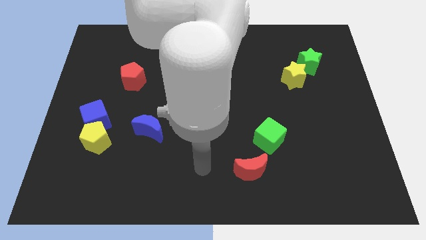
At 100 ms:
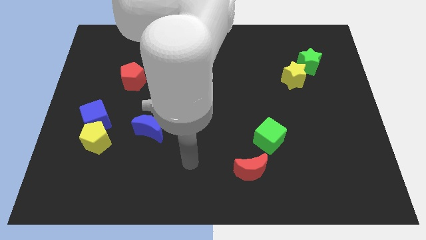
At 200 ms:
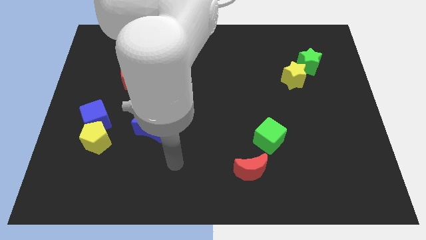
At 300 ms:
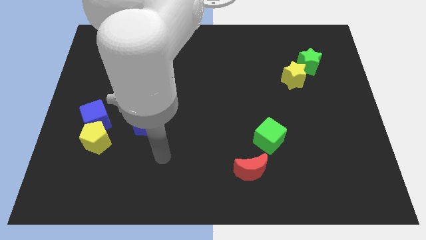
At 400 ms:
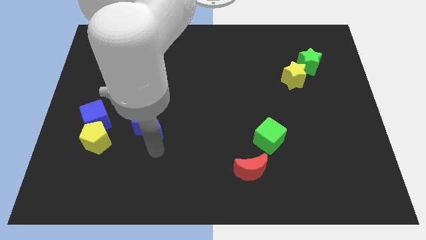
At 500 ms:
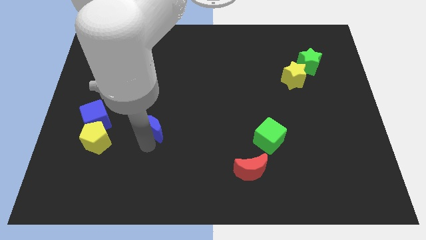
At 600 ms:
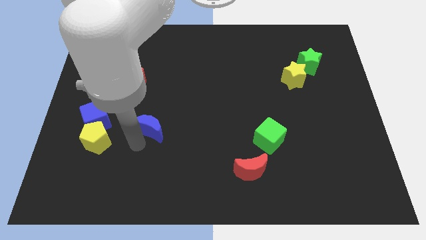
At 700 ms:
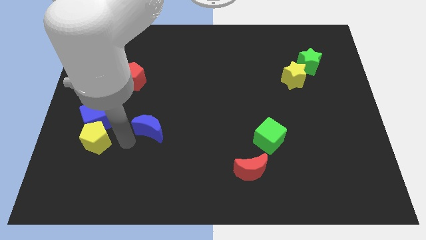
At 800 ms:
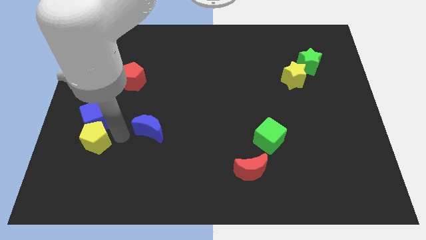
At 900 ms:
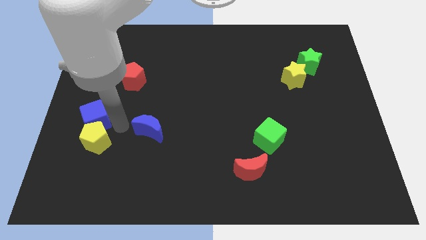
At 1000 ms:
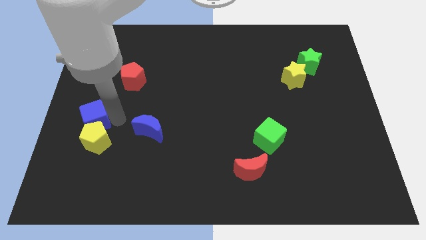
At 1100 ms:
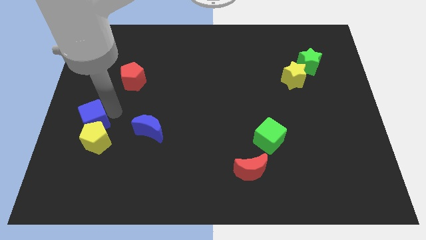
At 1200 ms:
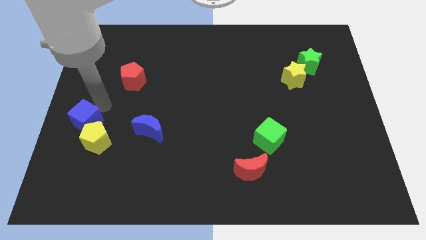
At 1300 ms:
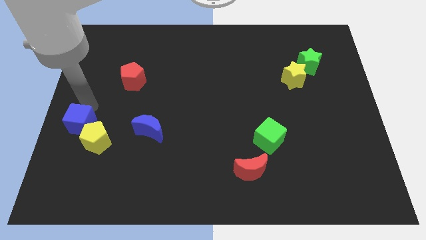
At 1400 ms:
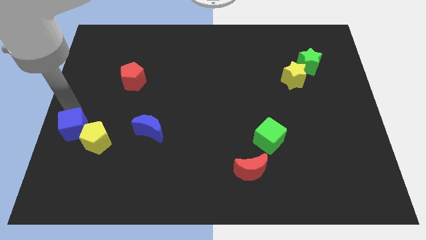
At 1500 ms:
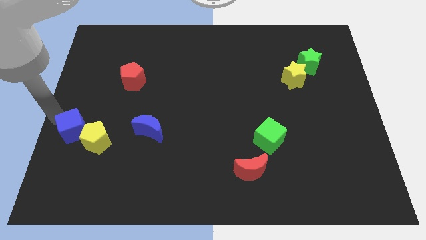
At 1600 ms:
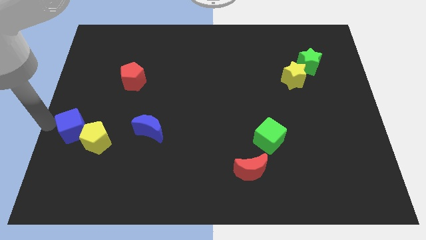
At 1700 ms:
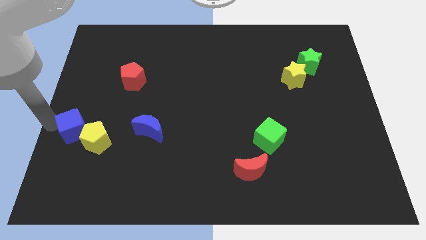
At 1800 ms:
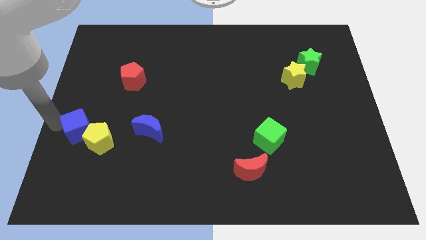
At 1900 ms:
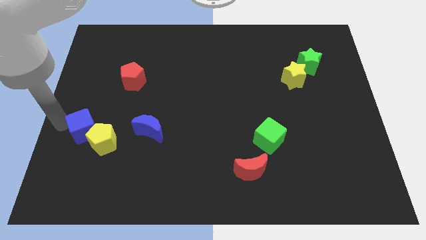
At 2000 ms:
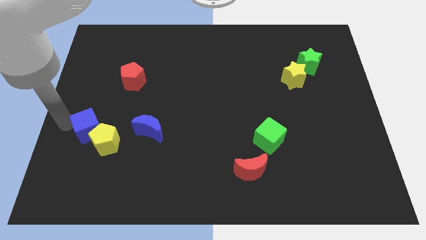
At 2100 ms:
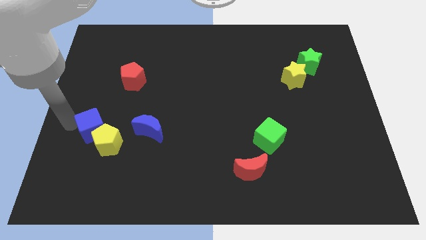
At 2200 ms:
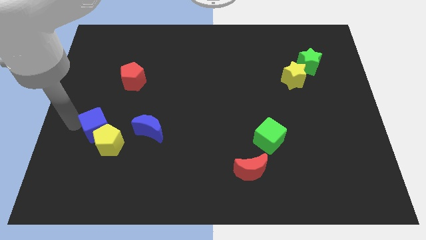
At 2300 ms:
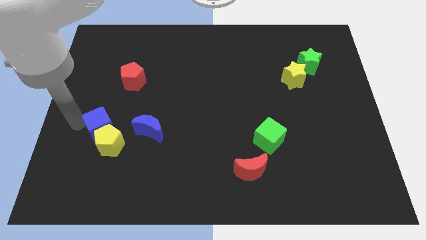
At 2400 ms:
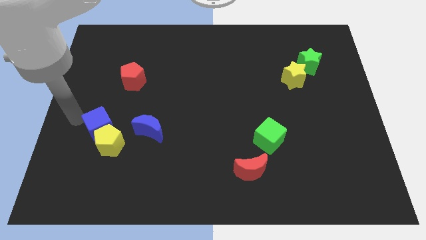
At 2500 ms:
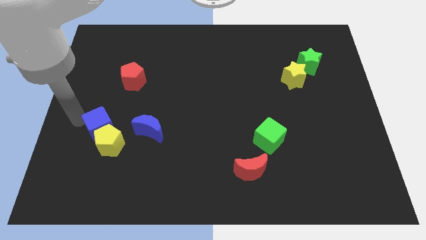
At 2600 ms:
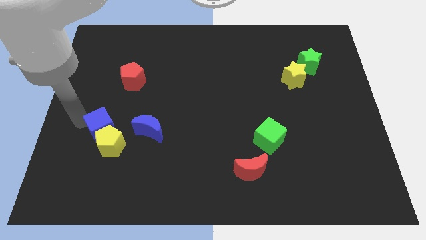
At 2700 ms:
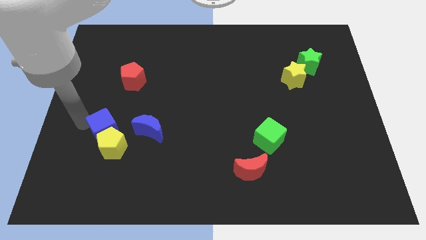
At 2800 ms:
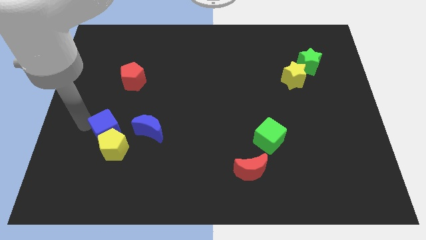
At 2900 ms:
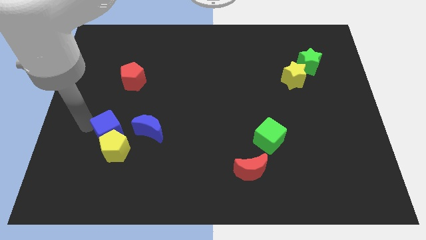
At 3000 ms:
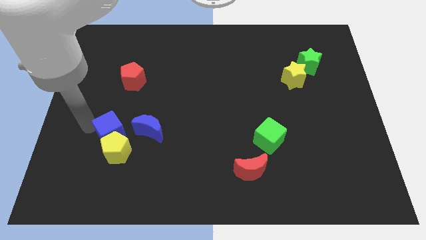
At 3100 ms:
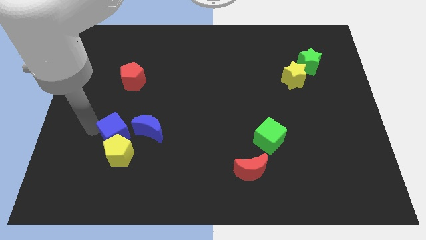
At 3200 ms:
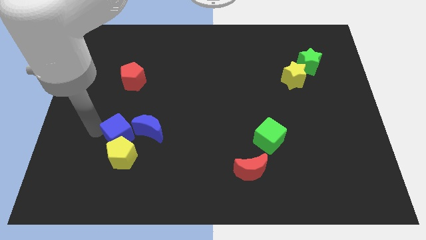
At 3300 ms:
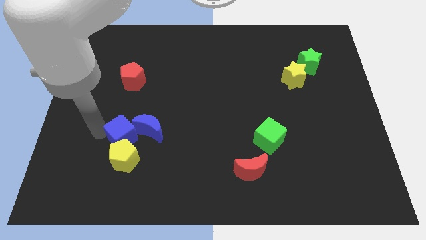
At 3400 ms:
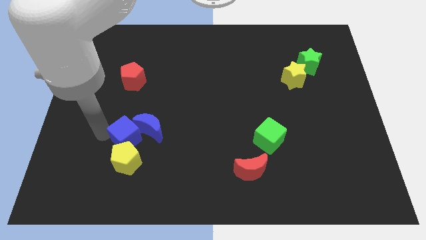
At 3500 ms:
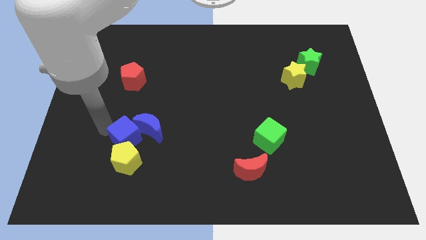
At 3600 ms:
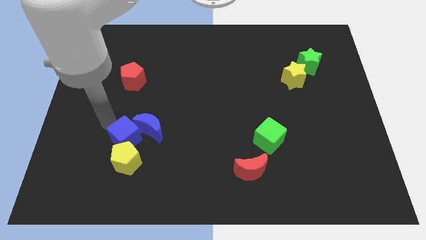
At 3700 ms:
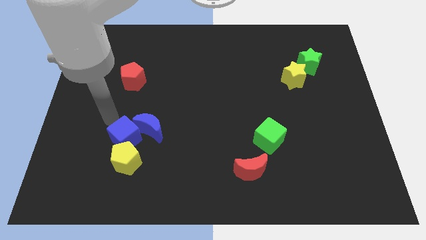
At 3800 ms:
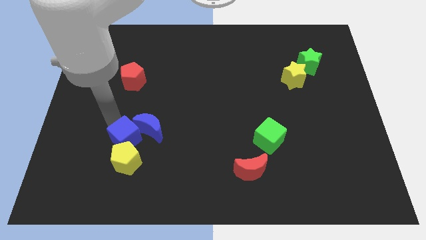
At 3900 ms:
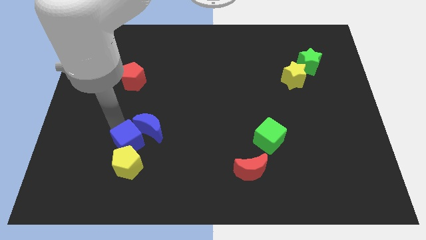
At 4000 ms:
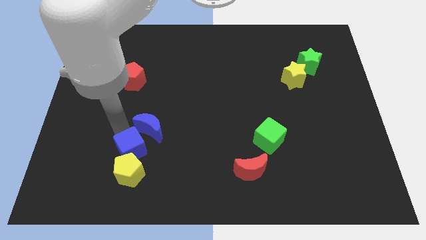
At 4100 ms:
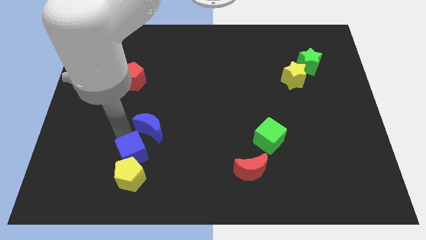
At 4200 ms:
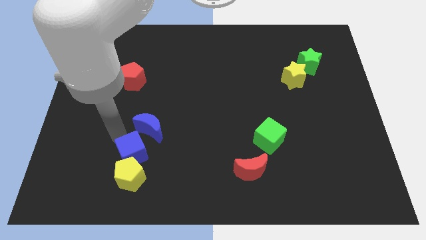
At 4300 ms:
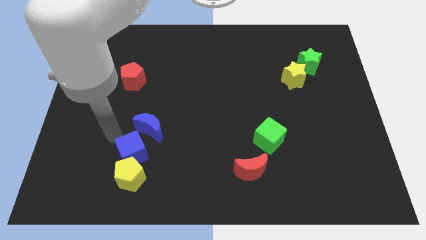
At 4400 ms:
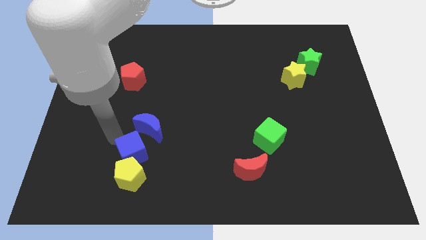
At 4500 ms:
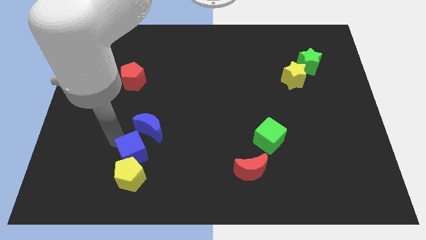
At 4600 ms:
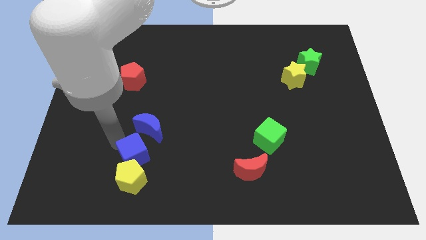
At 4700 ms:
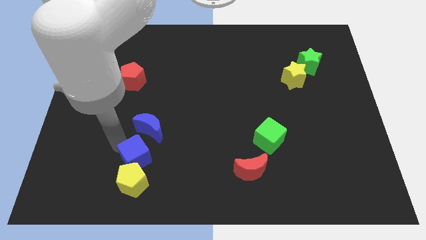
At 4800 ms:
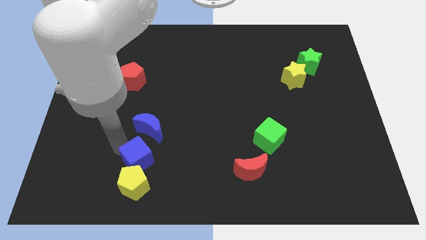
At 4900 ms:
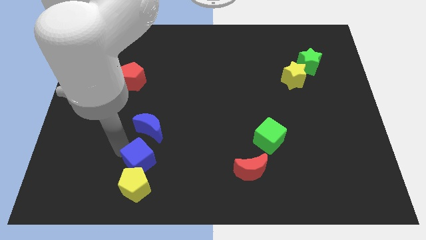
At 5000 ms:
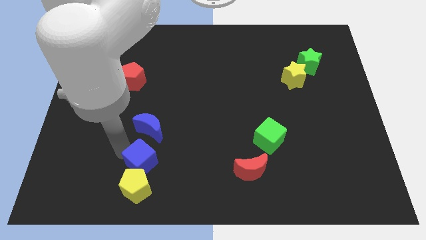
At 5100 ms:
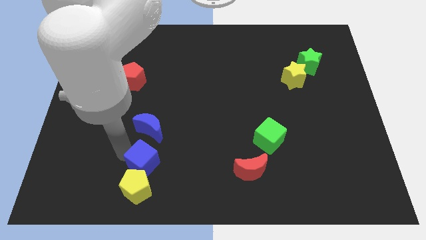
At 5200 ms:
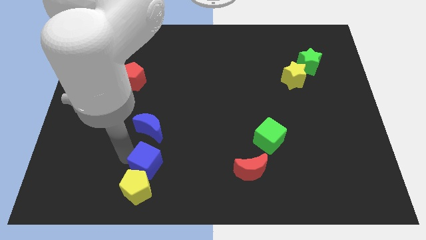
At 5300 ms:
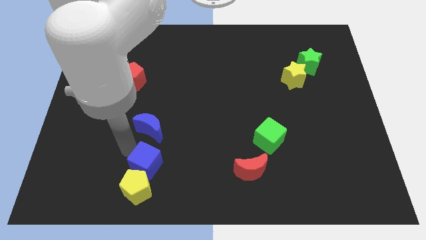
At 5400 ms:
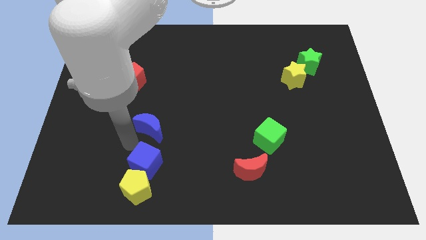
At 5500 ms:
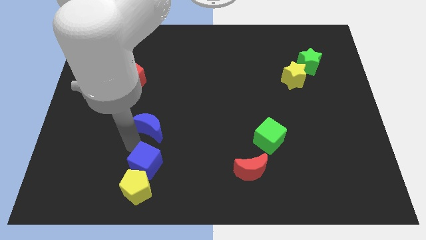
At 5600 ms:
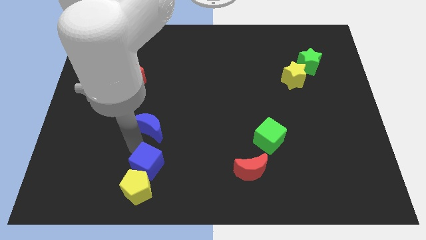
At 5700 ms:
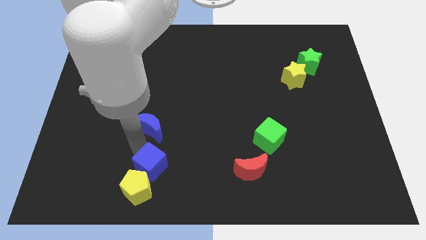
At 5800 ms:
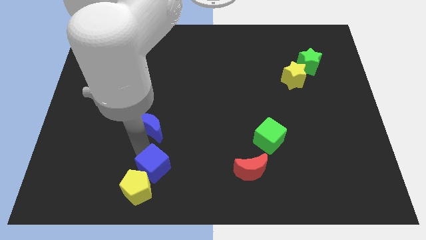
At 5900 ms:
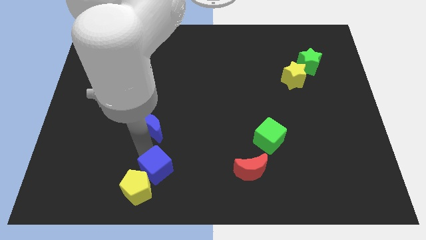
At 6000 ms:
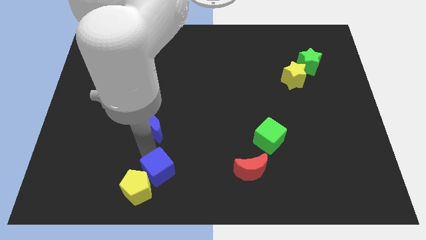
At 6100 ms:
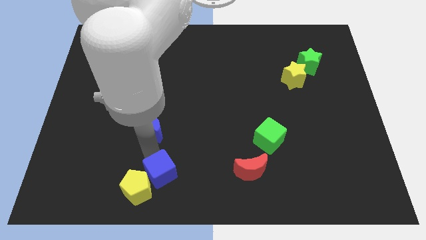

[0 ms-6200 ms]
slide the blue cube to the bottom side

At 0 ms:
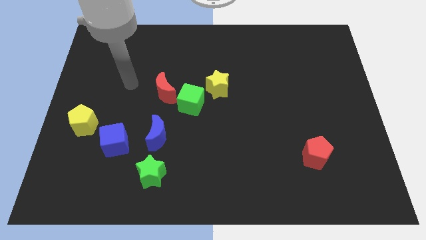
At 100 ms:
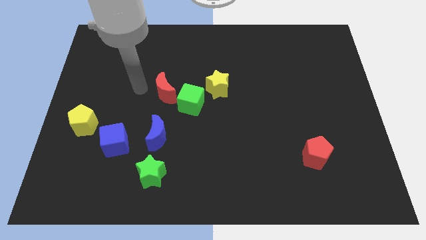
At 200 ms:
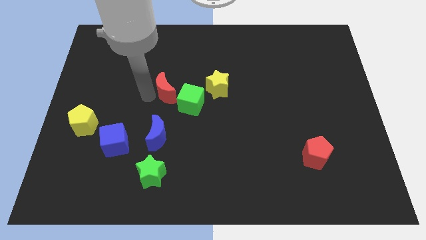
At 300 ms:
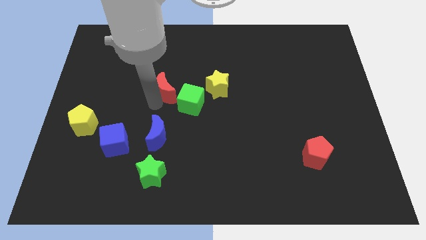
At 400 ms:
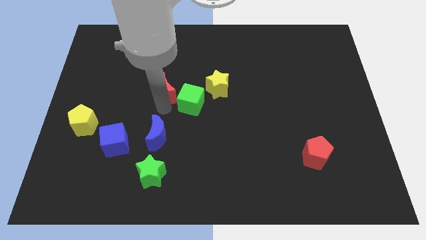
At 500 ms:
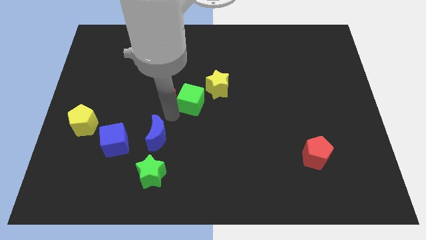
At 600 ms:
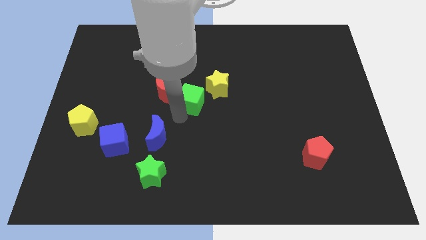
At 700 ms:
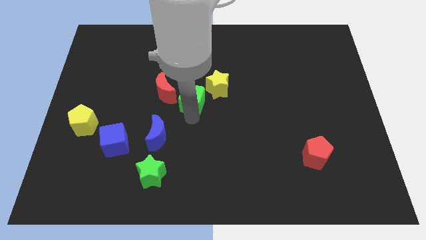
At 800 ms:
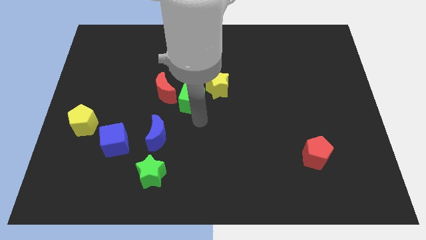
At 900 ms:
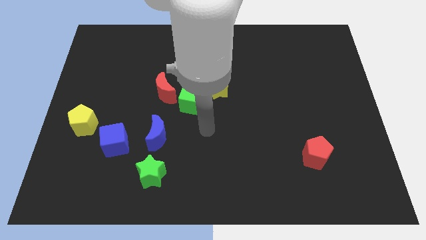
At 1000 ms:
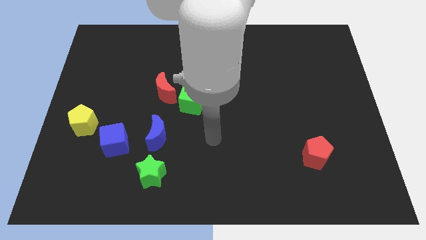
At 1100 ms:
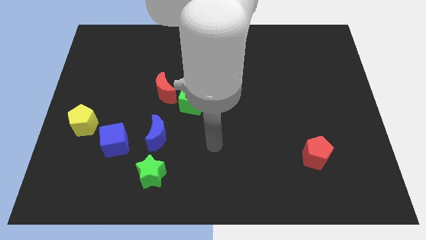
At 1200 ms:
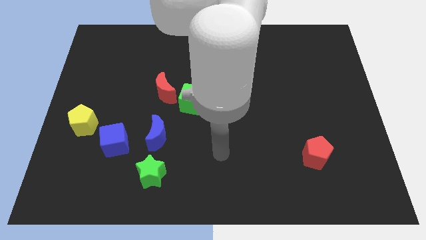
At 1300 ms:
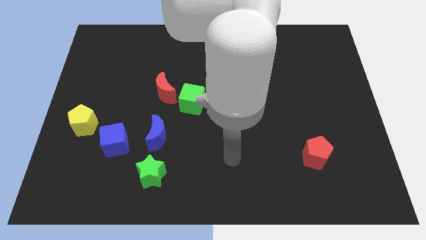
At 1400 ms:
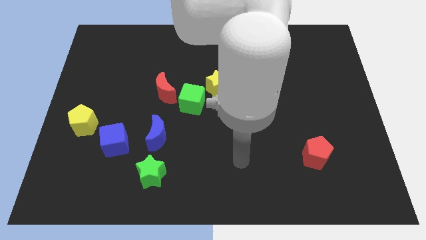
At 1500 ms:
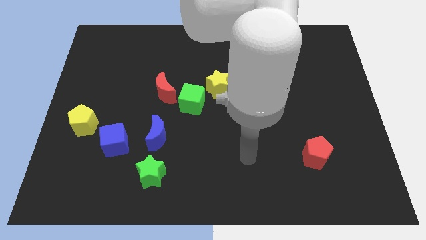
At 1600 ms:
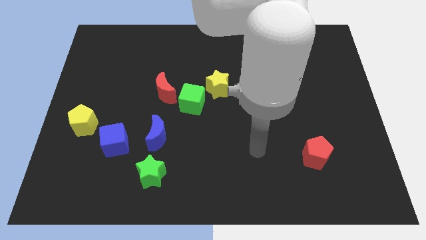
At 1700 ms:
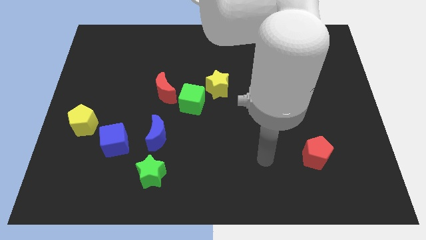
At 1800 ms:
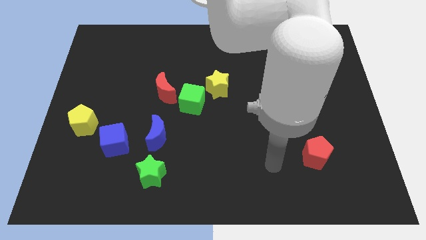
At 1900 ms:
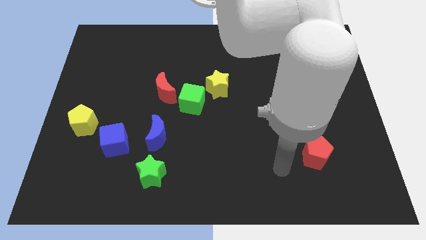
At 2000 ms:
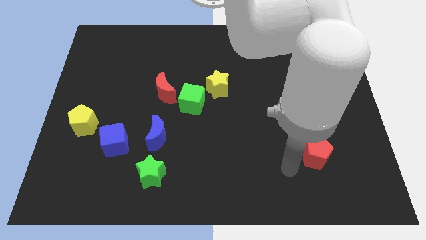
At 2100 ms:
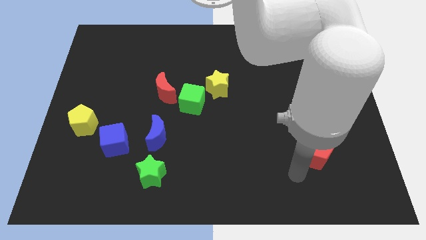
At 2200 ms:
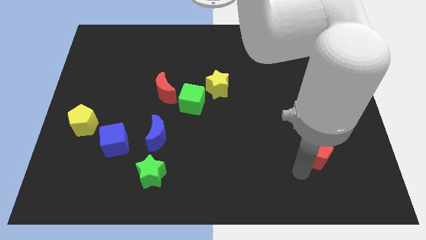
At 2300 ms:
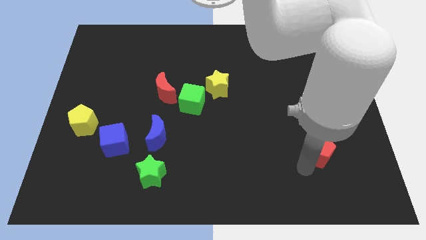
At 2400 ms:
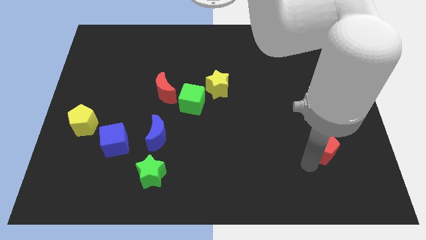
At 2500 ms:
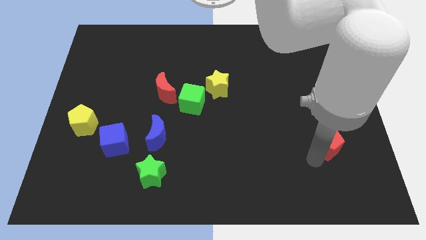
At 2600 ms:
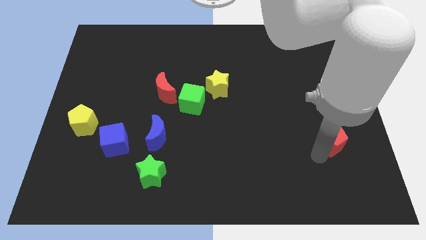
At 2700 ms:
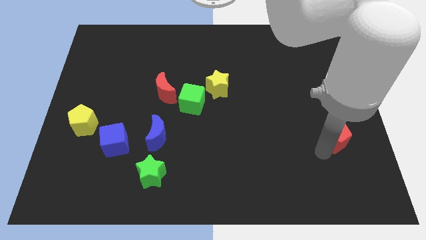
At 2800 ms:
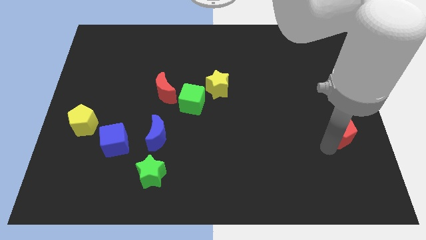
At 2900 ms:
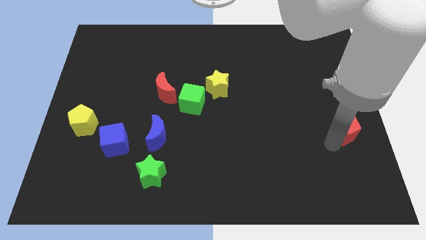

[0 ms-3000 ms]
push the red pentagon to the right side
